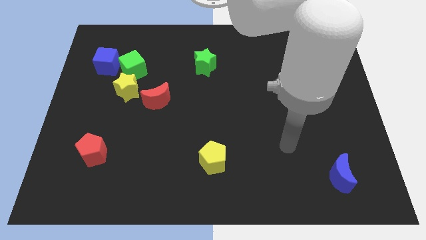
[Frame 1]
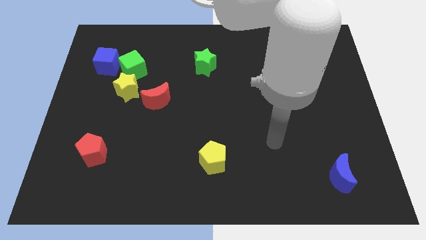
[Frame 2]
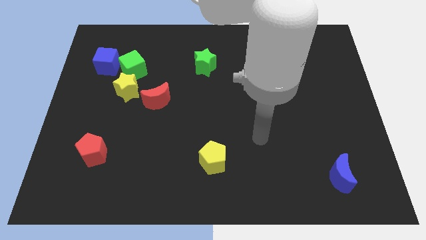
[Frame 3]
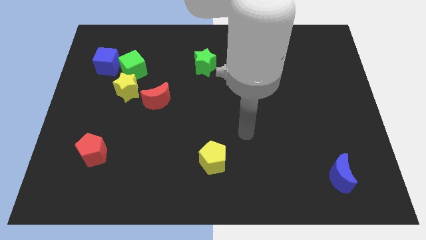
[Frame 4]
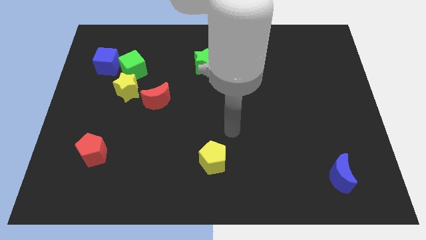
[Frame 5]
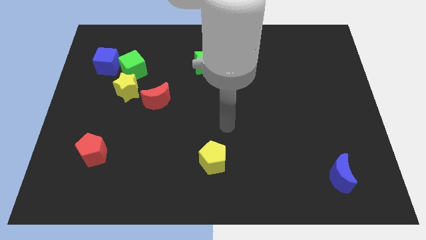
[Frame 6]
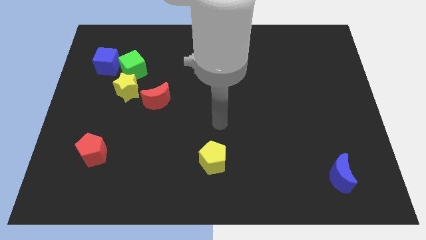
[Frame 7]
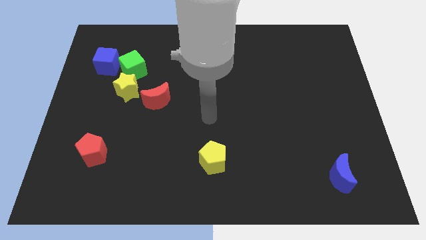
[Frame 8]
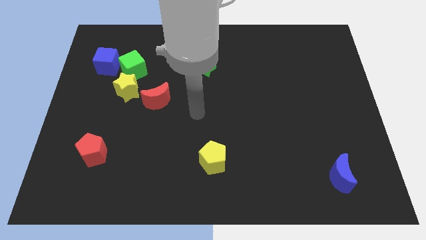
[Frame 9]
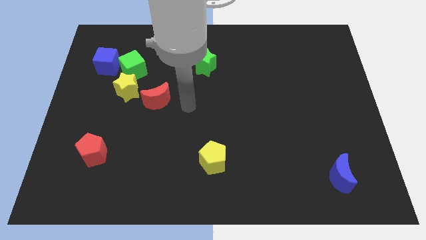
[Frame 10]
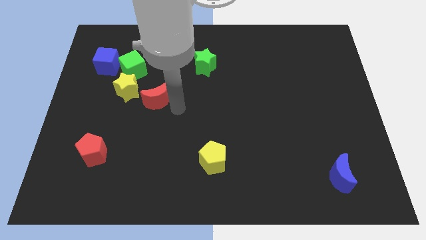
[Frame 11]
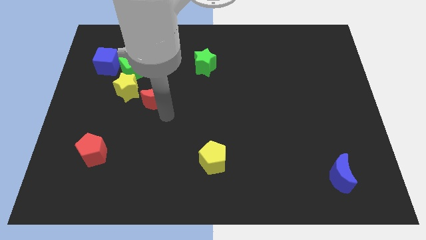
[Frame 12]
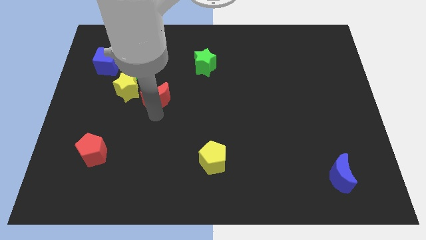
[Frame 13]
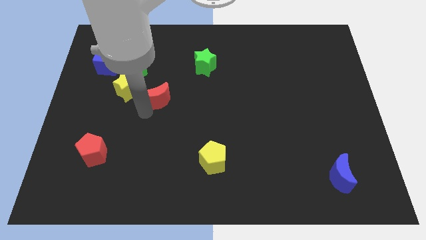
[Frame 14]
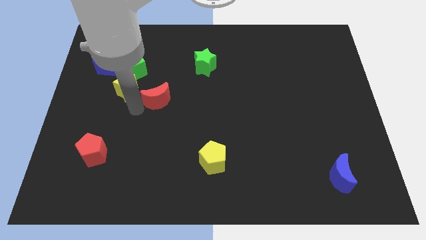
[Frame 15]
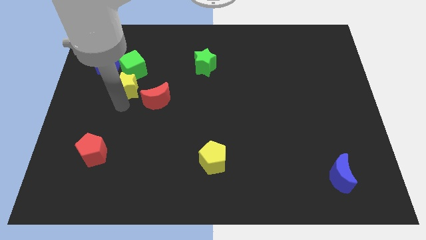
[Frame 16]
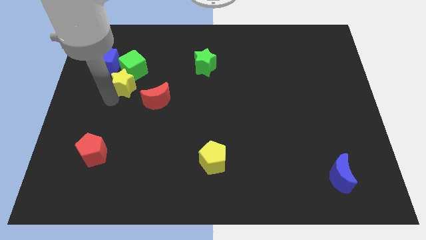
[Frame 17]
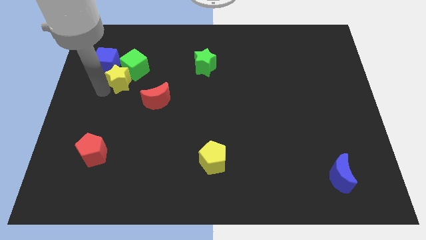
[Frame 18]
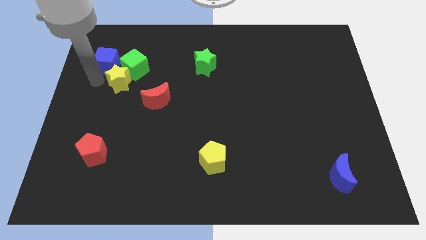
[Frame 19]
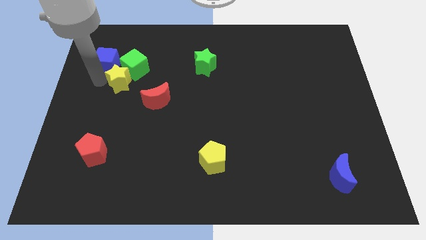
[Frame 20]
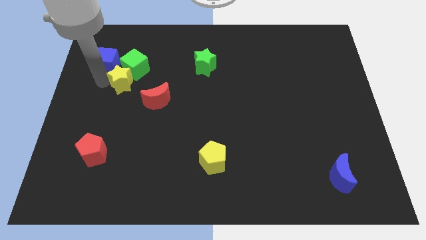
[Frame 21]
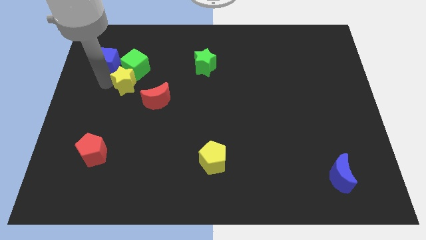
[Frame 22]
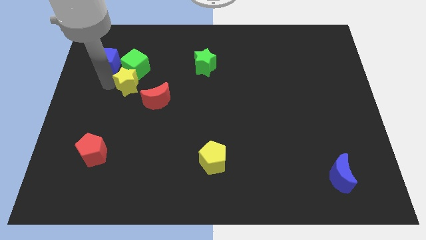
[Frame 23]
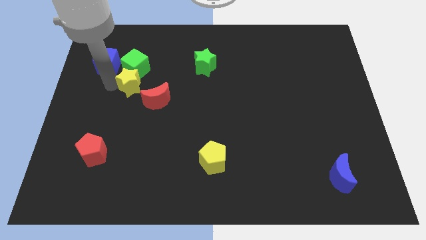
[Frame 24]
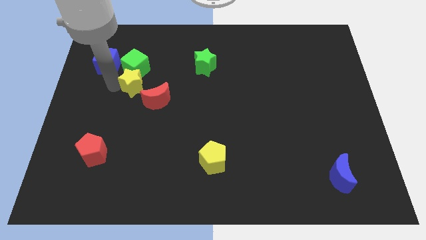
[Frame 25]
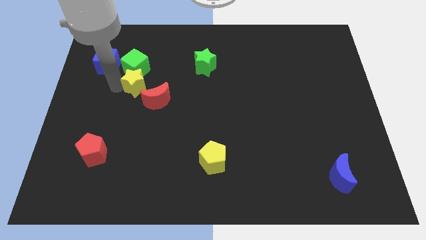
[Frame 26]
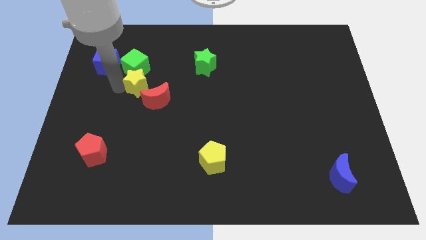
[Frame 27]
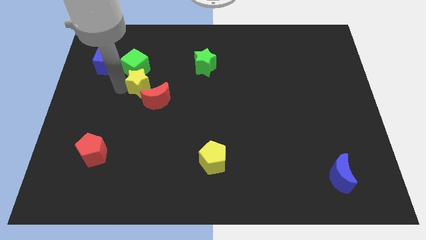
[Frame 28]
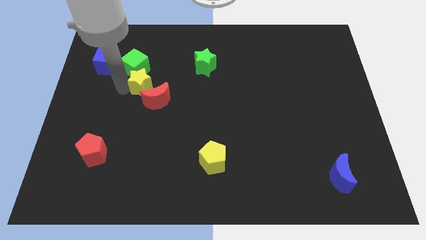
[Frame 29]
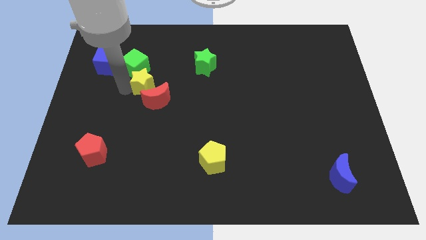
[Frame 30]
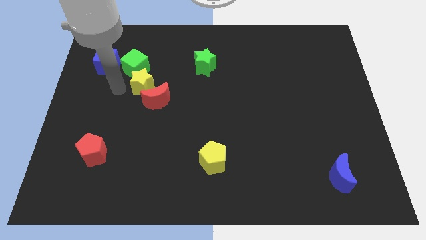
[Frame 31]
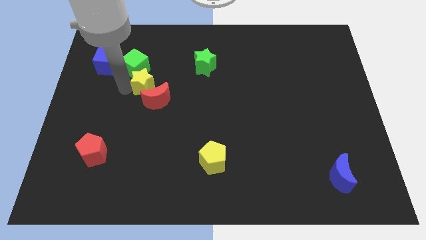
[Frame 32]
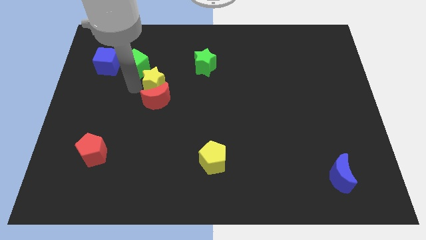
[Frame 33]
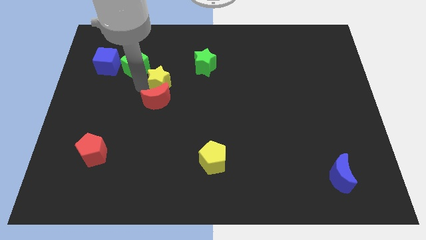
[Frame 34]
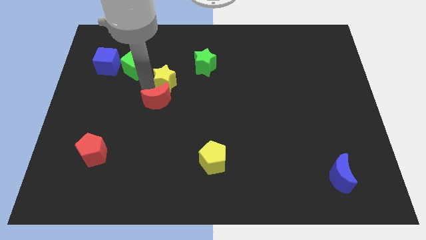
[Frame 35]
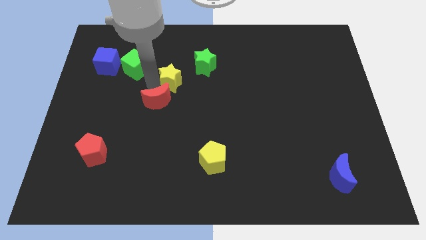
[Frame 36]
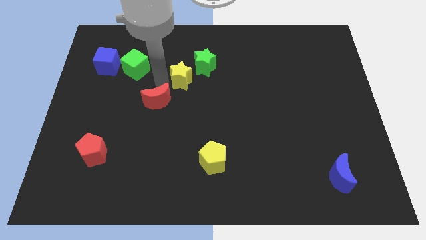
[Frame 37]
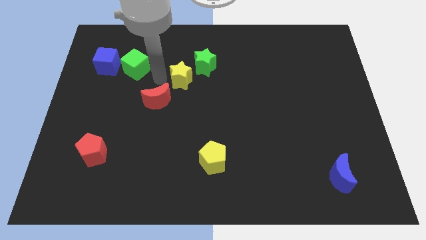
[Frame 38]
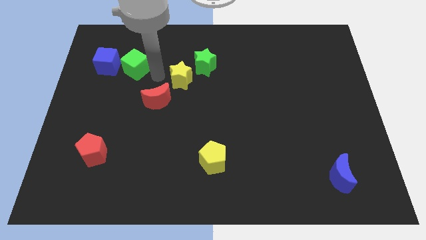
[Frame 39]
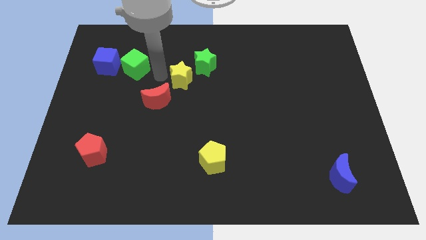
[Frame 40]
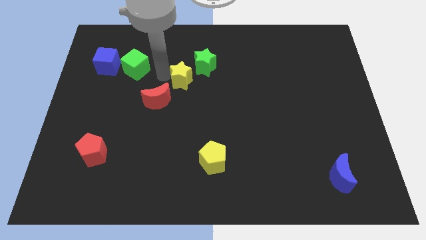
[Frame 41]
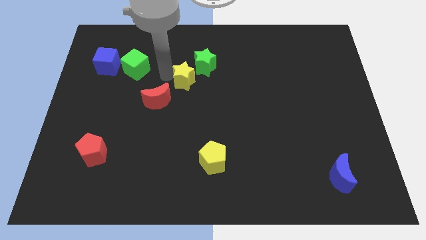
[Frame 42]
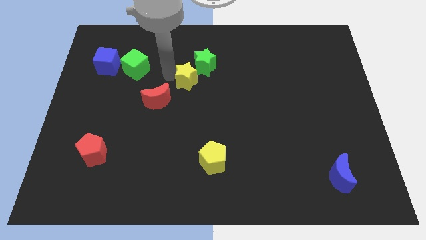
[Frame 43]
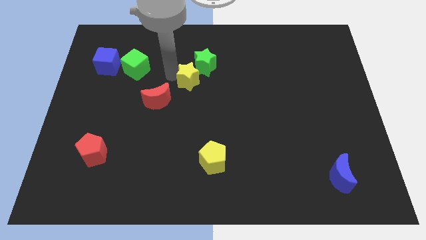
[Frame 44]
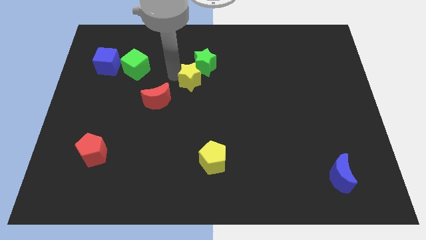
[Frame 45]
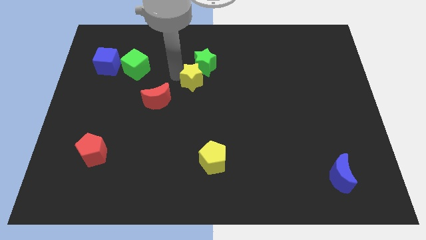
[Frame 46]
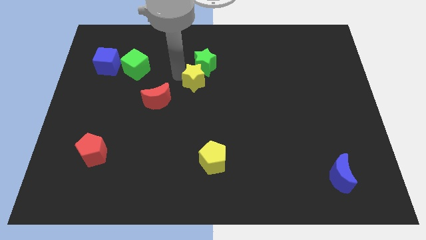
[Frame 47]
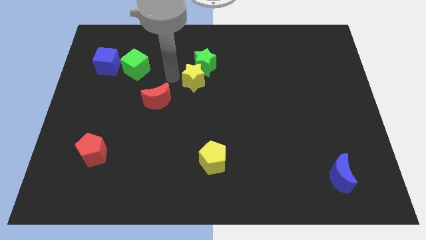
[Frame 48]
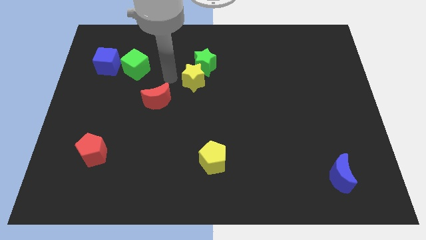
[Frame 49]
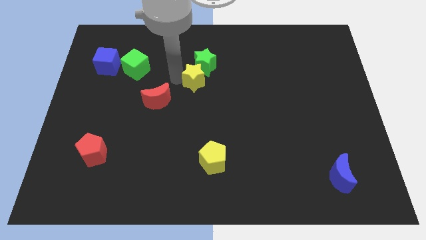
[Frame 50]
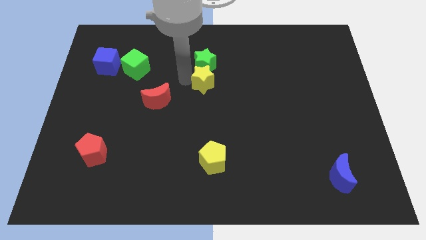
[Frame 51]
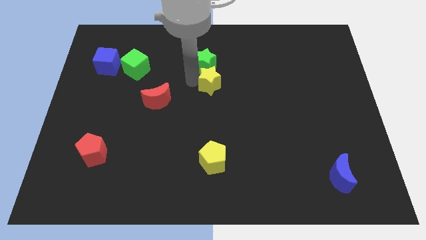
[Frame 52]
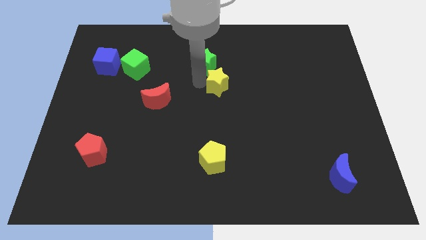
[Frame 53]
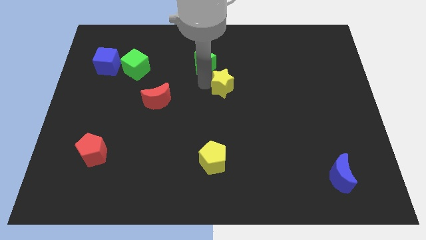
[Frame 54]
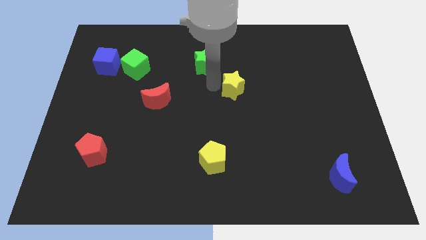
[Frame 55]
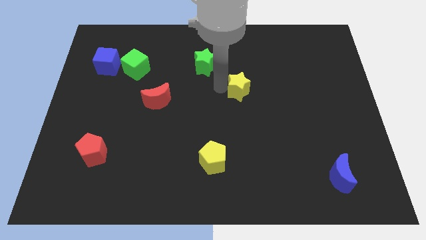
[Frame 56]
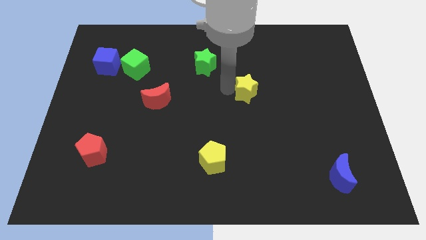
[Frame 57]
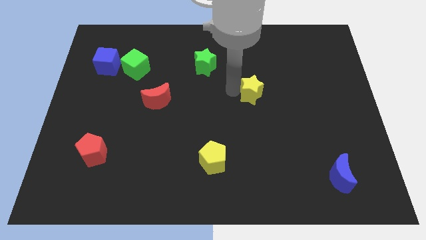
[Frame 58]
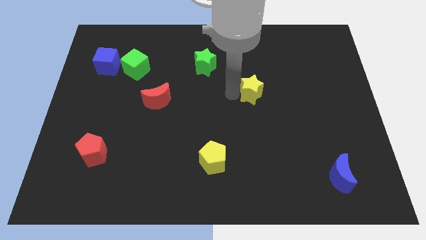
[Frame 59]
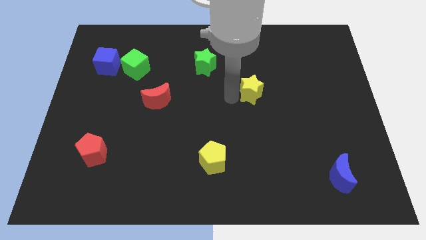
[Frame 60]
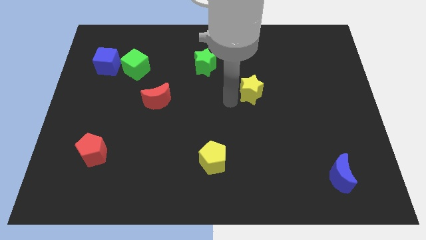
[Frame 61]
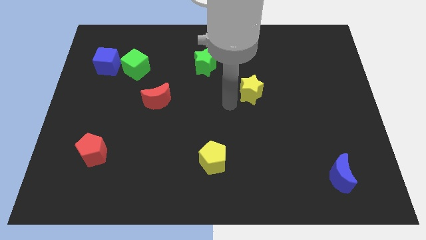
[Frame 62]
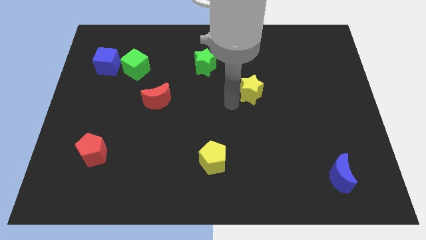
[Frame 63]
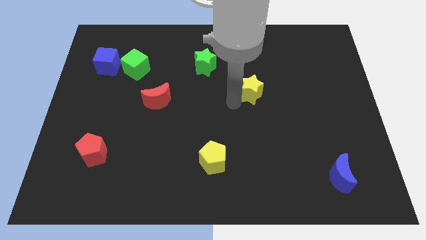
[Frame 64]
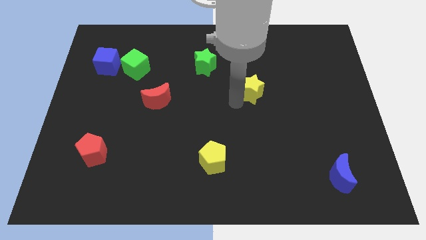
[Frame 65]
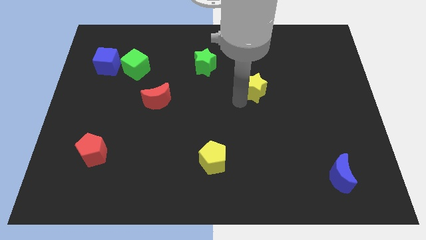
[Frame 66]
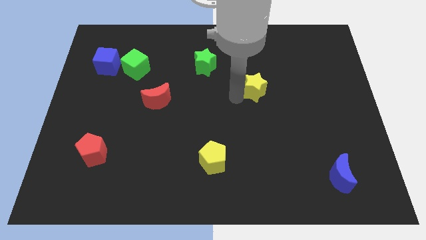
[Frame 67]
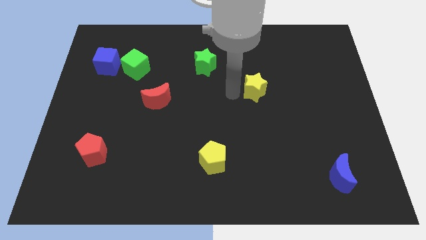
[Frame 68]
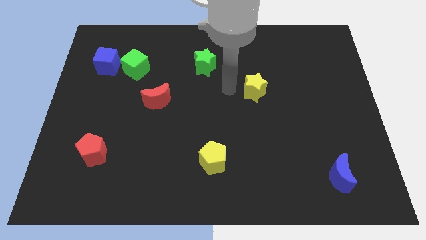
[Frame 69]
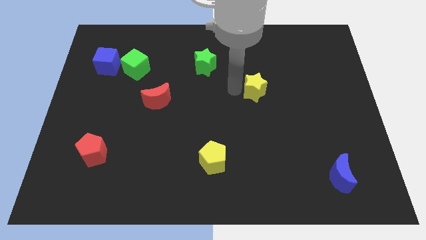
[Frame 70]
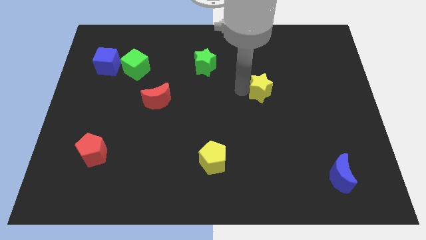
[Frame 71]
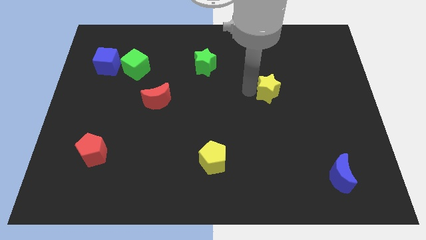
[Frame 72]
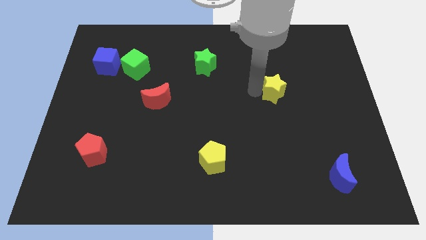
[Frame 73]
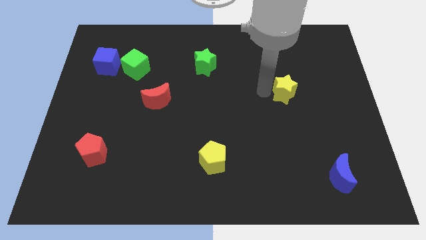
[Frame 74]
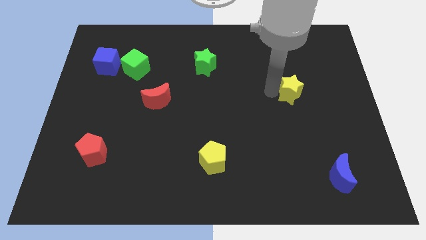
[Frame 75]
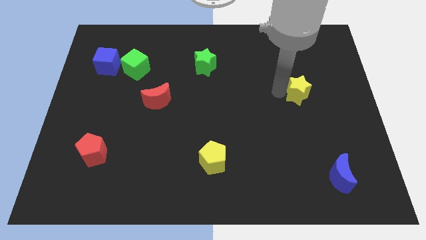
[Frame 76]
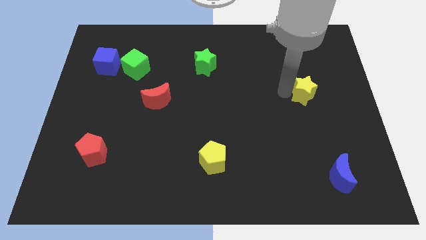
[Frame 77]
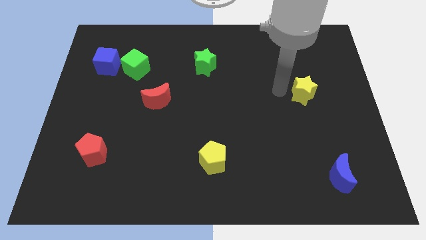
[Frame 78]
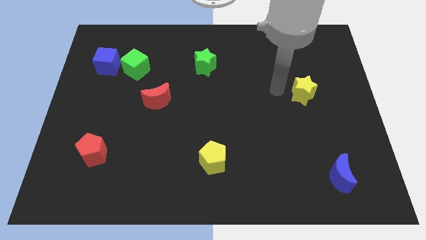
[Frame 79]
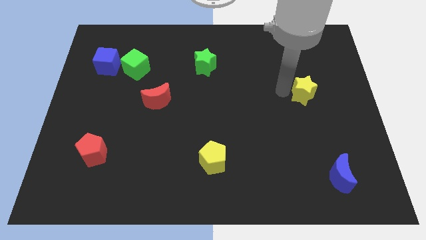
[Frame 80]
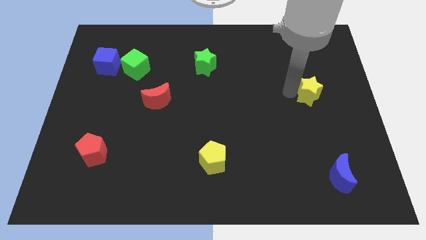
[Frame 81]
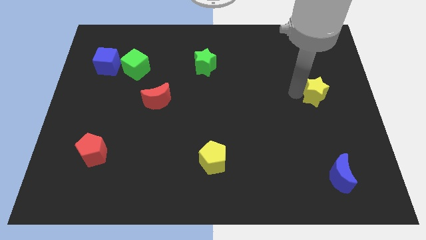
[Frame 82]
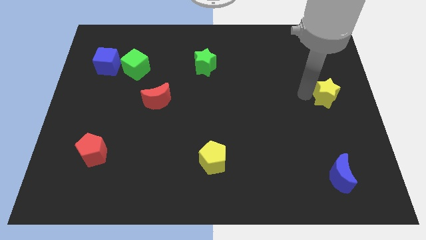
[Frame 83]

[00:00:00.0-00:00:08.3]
slide the yellow star to the center right
